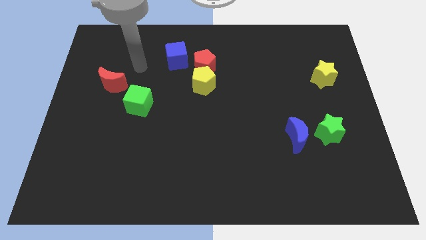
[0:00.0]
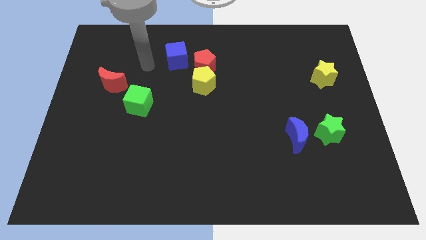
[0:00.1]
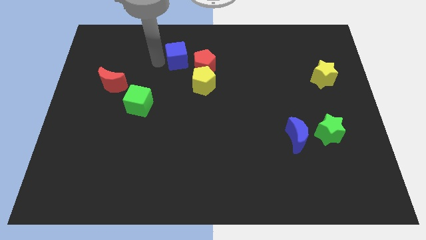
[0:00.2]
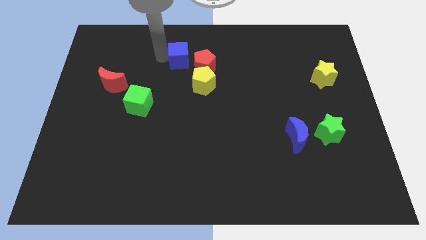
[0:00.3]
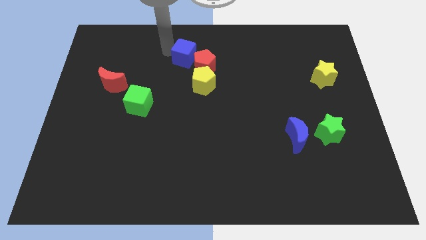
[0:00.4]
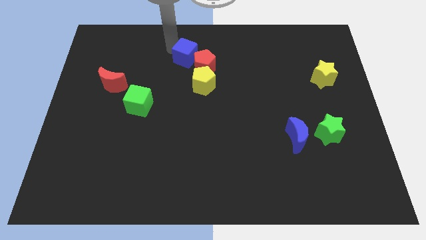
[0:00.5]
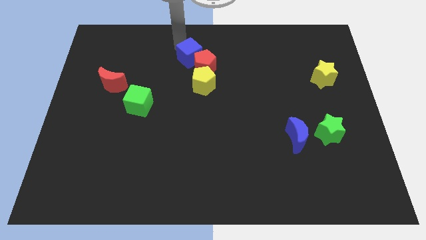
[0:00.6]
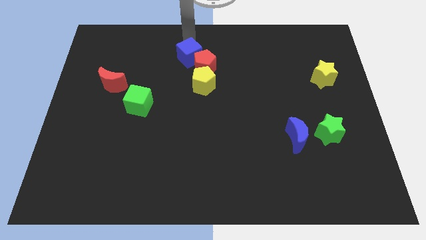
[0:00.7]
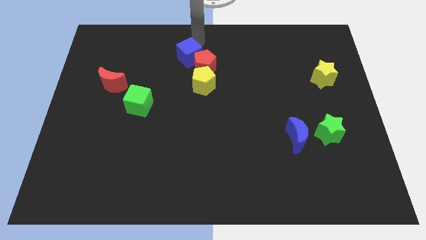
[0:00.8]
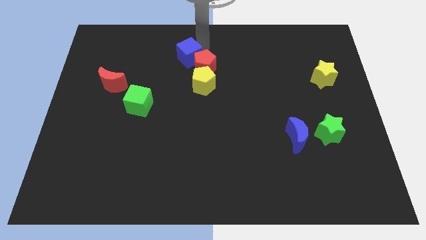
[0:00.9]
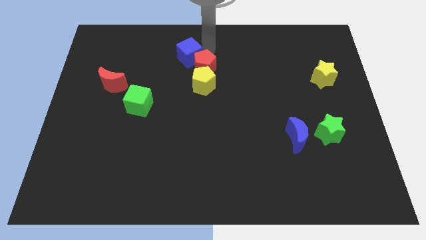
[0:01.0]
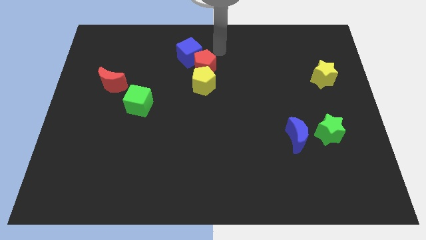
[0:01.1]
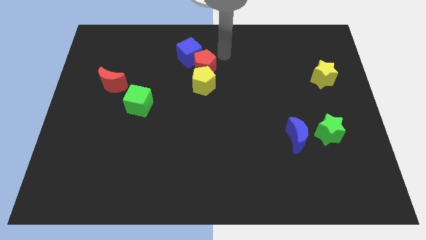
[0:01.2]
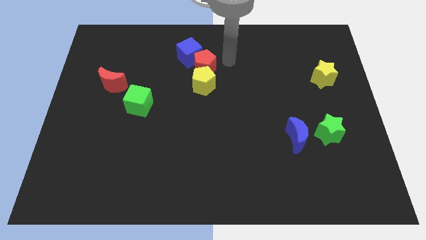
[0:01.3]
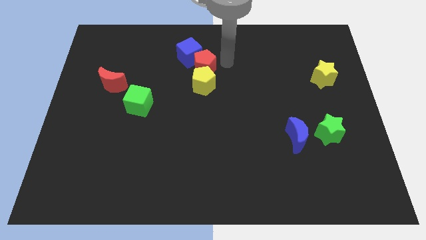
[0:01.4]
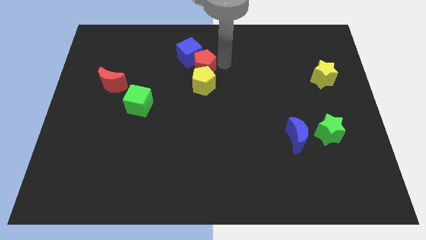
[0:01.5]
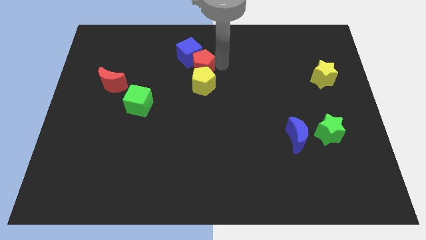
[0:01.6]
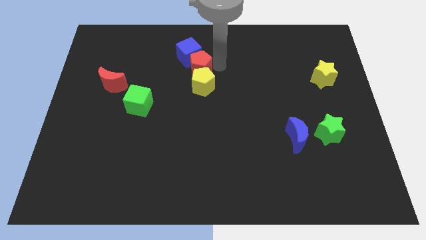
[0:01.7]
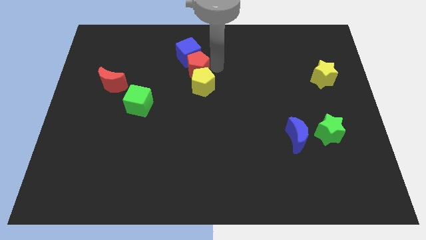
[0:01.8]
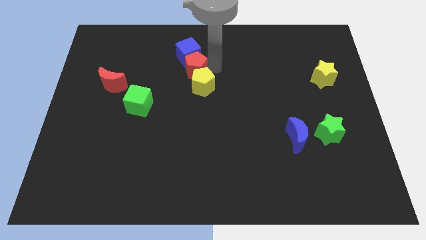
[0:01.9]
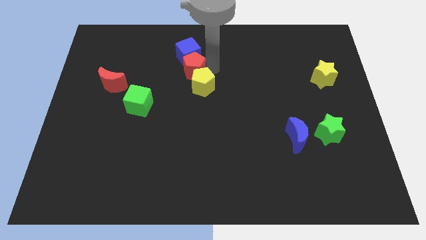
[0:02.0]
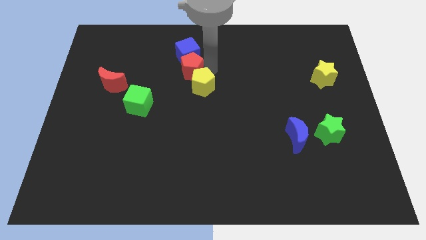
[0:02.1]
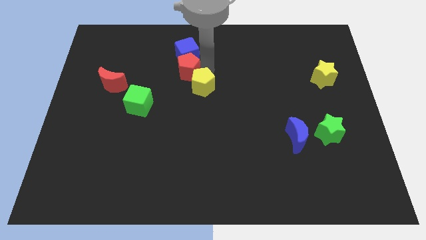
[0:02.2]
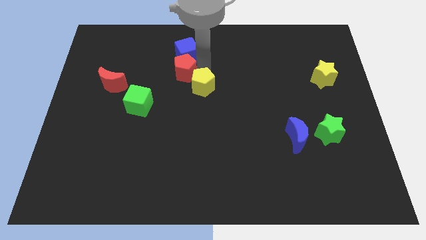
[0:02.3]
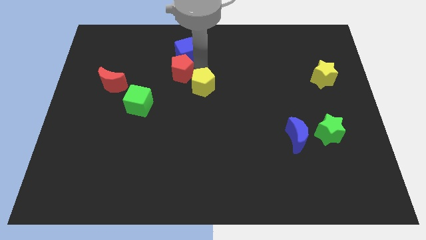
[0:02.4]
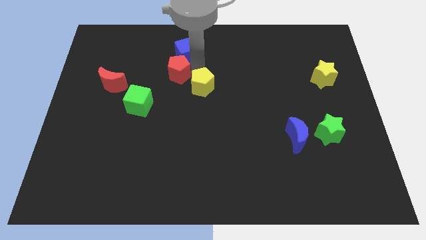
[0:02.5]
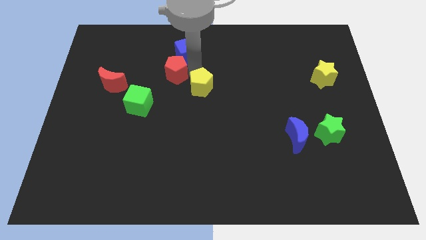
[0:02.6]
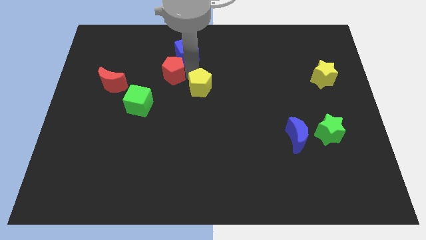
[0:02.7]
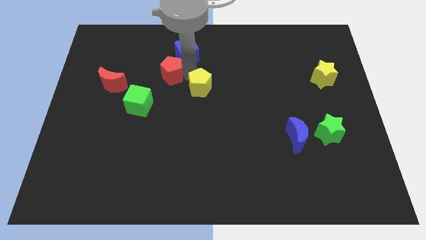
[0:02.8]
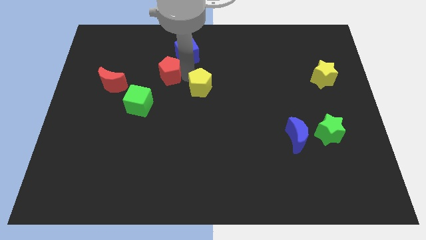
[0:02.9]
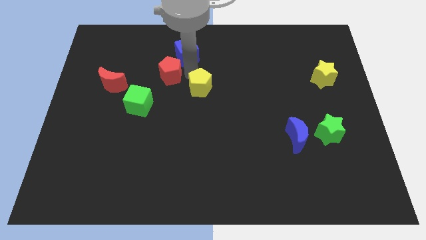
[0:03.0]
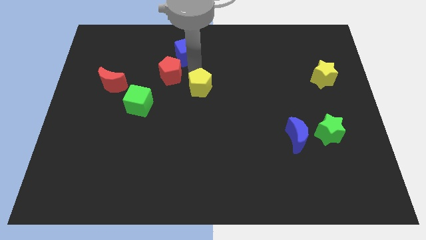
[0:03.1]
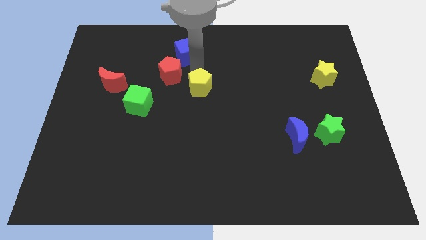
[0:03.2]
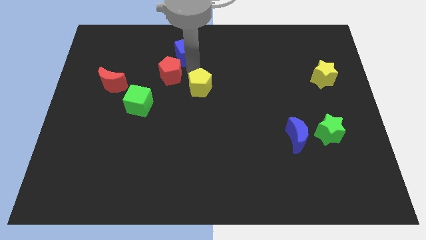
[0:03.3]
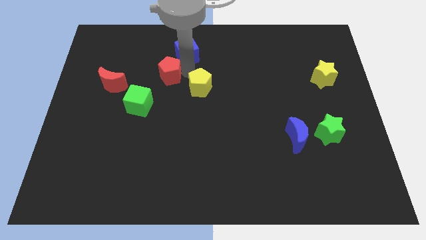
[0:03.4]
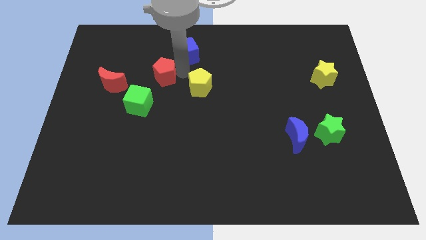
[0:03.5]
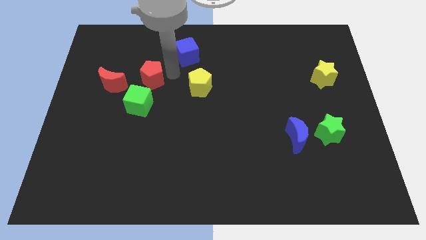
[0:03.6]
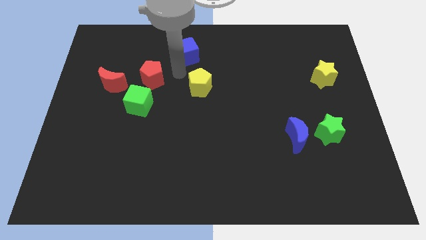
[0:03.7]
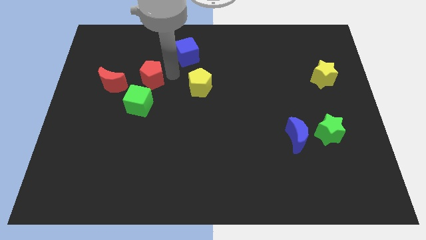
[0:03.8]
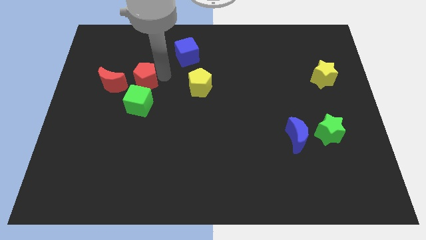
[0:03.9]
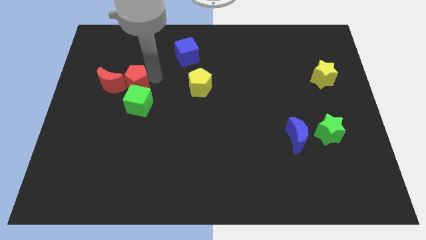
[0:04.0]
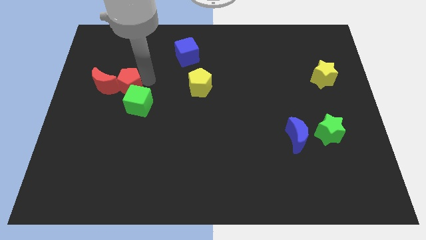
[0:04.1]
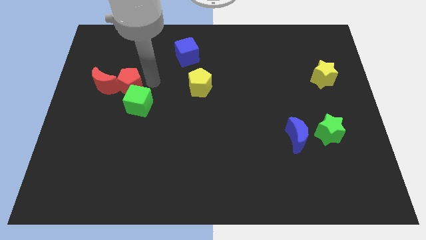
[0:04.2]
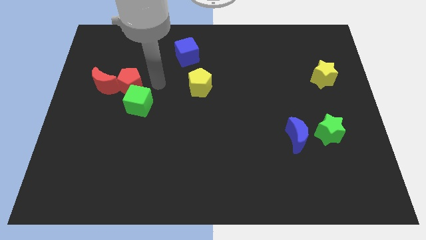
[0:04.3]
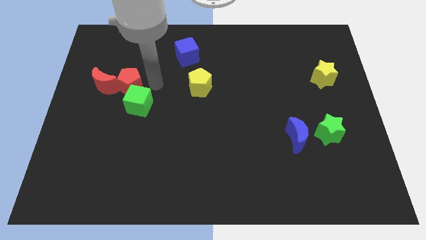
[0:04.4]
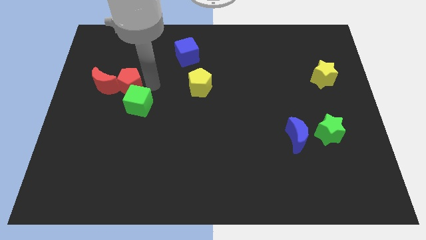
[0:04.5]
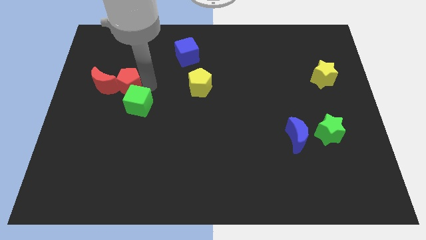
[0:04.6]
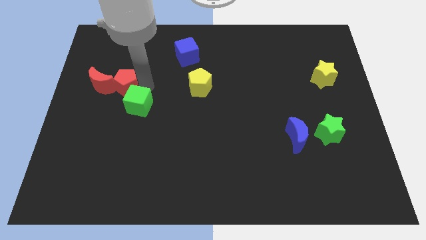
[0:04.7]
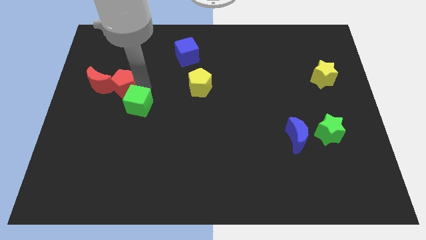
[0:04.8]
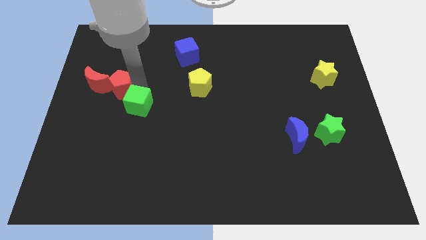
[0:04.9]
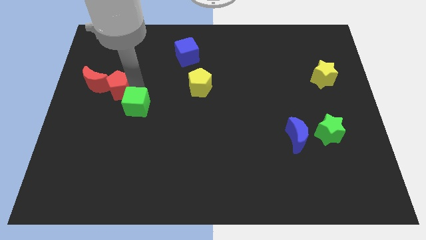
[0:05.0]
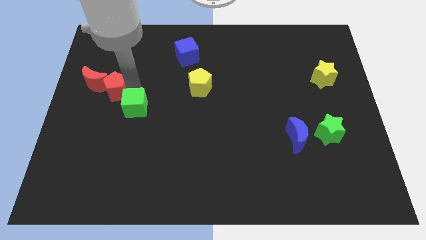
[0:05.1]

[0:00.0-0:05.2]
put the red pentagon next to the red moon

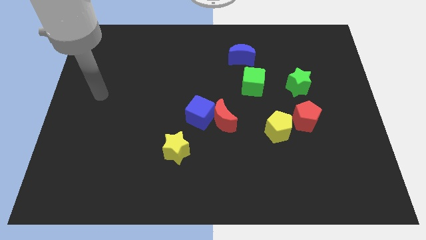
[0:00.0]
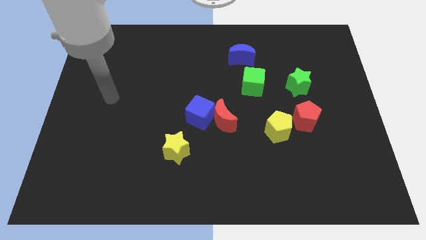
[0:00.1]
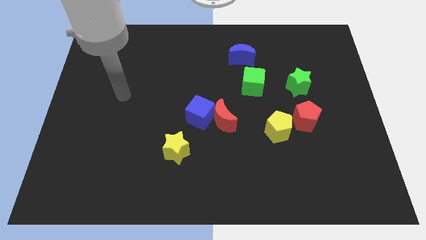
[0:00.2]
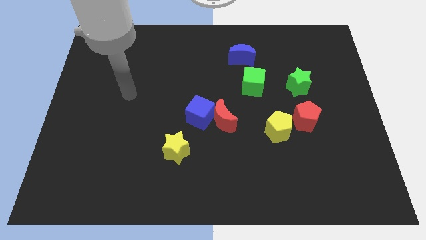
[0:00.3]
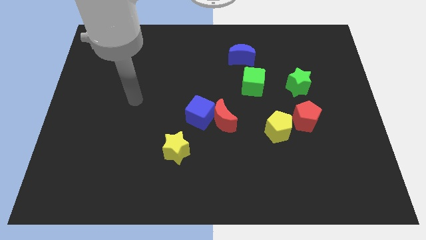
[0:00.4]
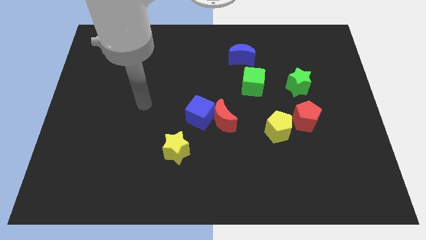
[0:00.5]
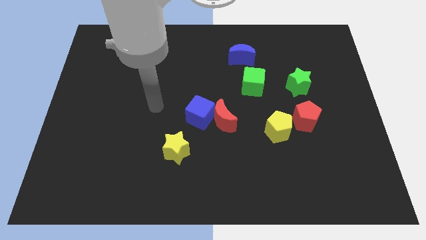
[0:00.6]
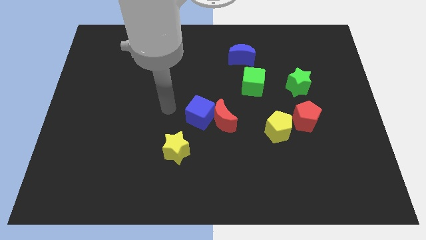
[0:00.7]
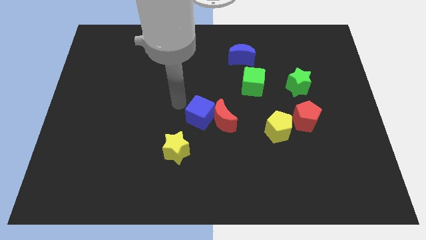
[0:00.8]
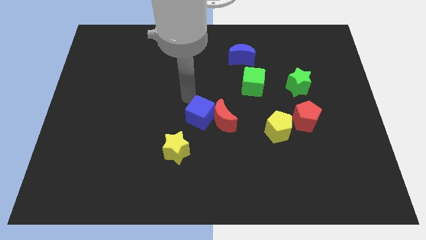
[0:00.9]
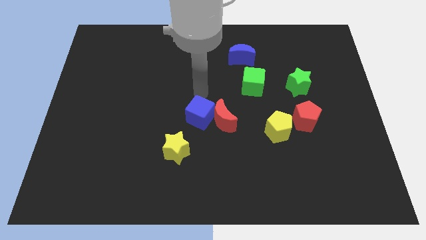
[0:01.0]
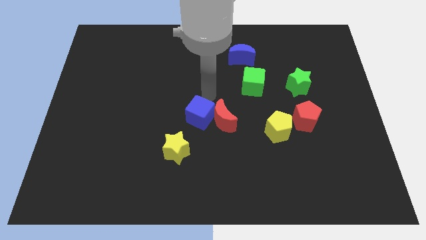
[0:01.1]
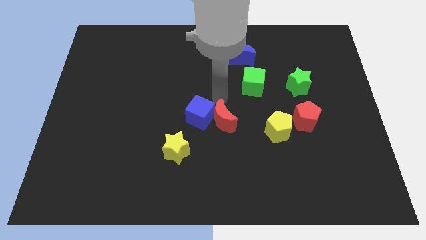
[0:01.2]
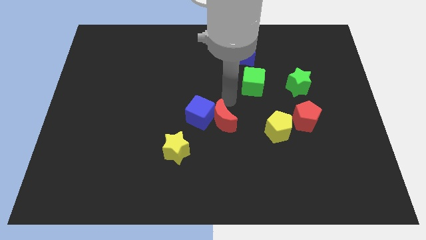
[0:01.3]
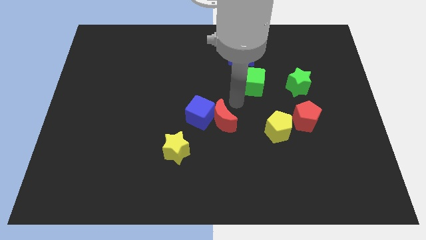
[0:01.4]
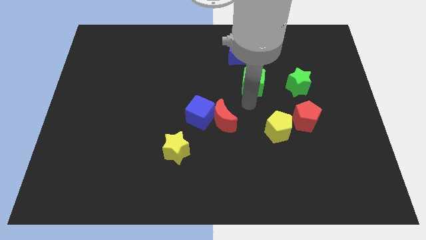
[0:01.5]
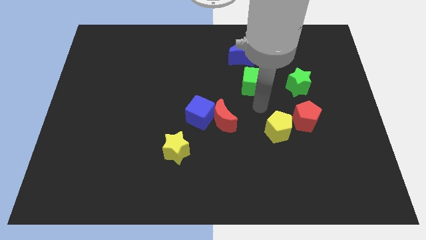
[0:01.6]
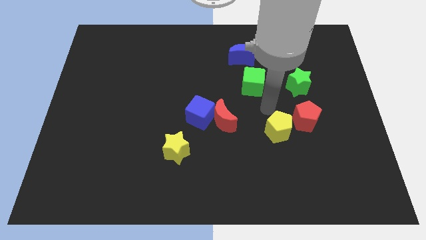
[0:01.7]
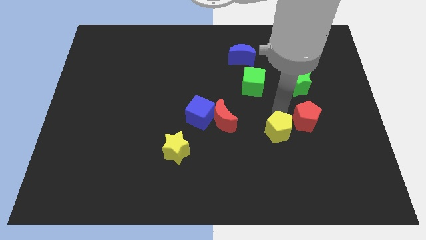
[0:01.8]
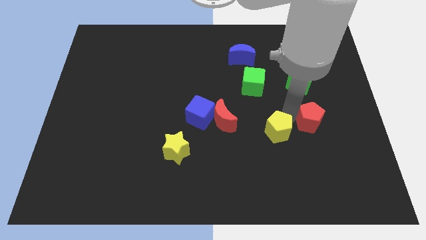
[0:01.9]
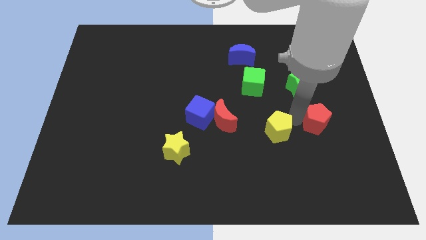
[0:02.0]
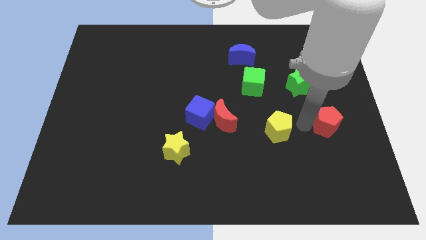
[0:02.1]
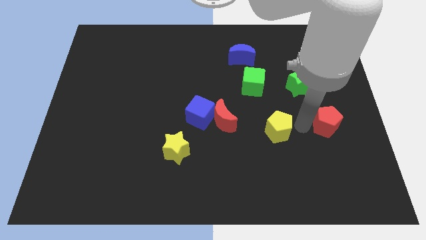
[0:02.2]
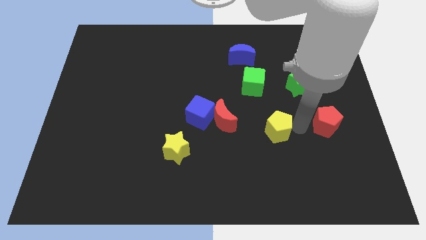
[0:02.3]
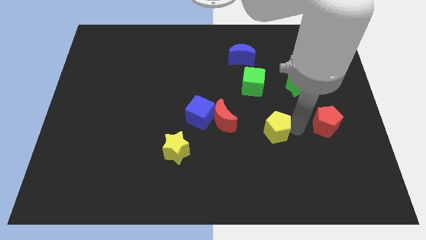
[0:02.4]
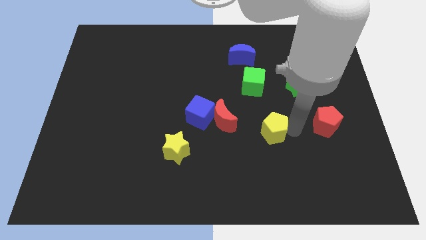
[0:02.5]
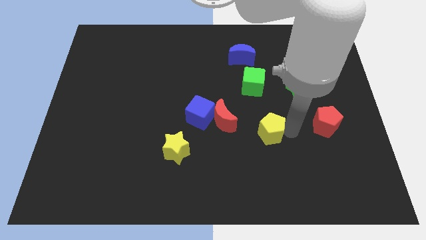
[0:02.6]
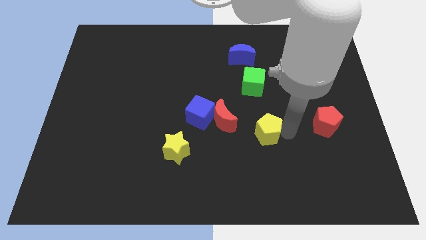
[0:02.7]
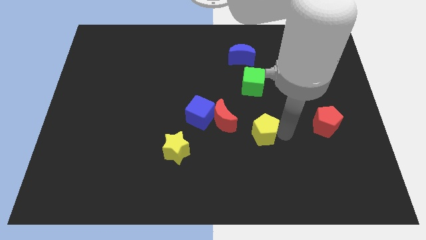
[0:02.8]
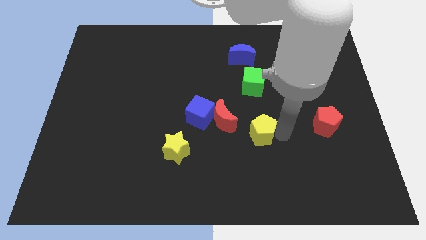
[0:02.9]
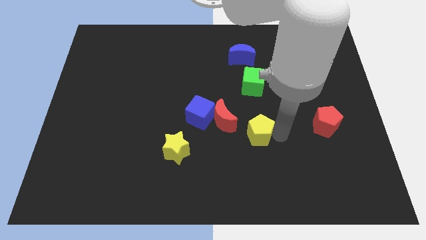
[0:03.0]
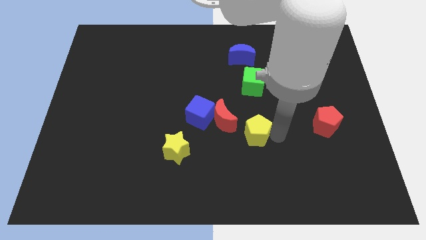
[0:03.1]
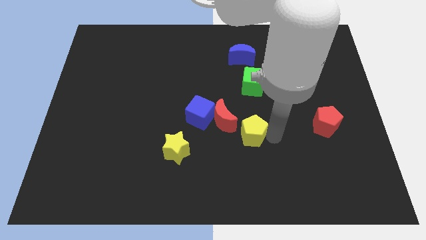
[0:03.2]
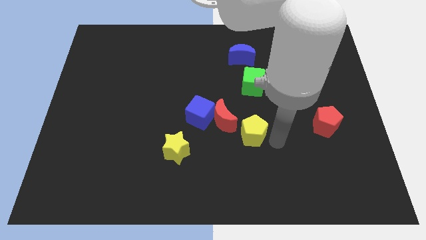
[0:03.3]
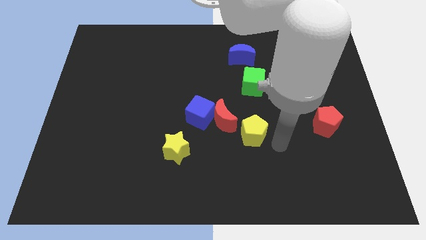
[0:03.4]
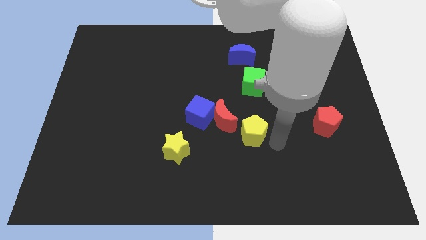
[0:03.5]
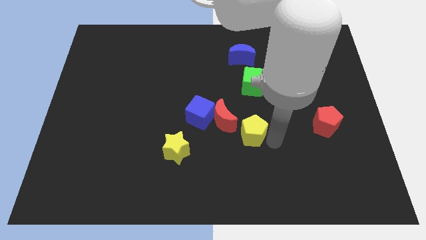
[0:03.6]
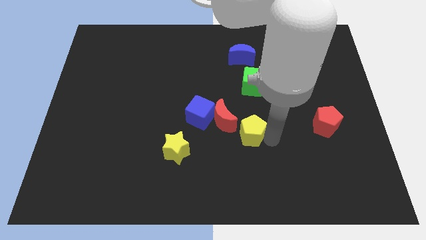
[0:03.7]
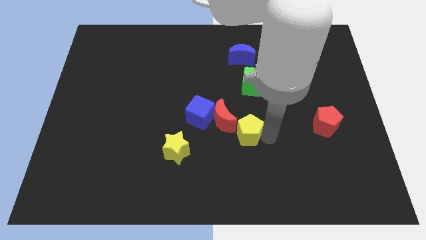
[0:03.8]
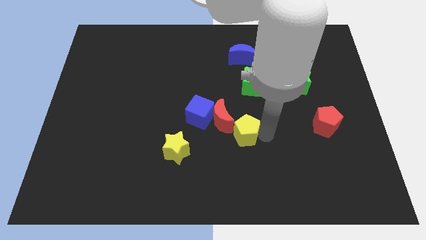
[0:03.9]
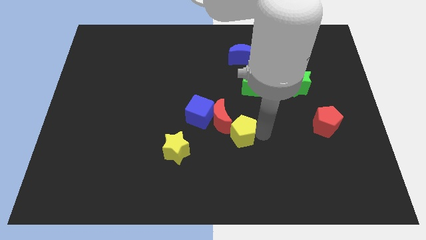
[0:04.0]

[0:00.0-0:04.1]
slide the yellow pentagon close to the red moon
